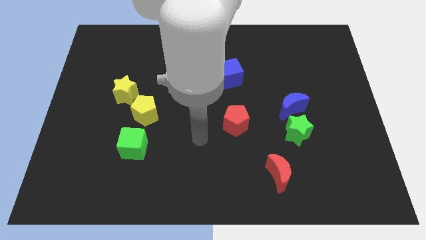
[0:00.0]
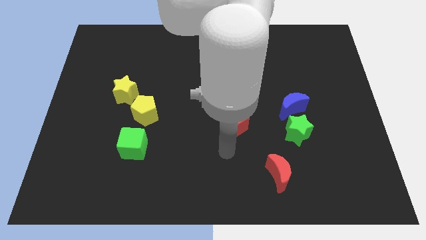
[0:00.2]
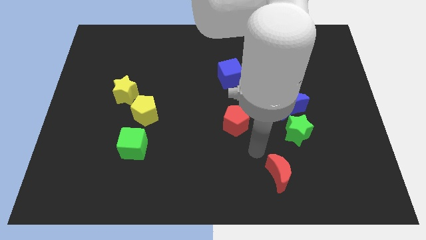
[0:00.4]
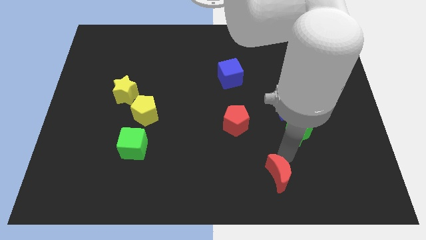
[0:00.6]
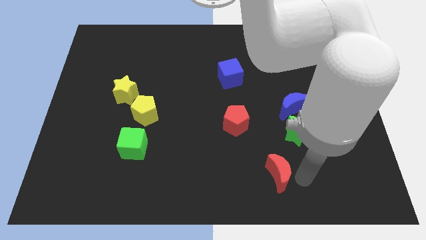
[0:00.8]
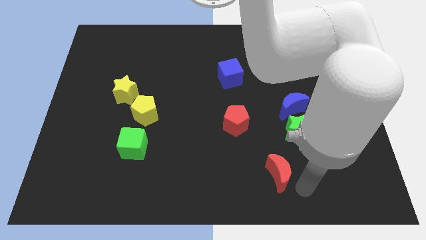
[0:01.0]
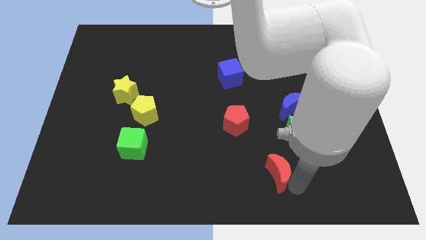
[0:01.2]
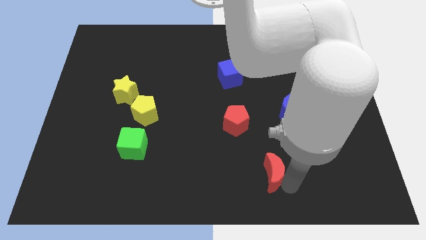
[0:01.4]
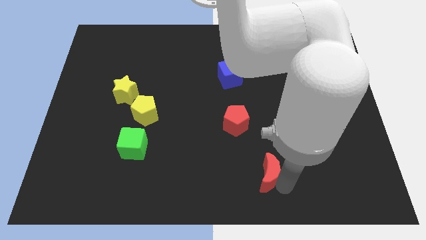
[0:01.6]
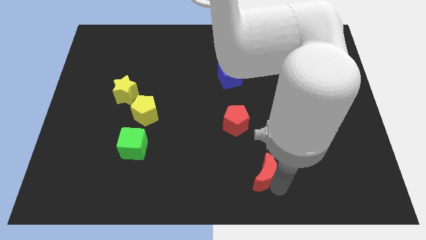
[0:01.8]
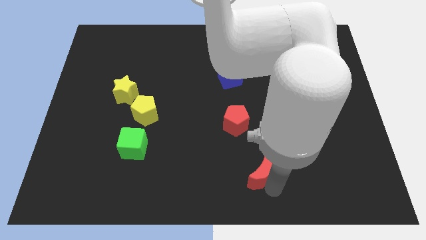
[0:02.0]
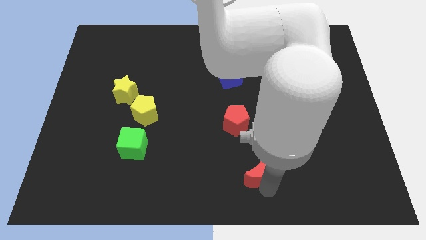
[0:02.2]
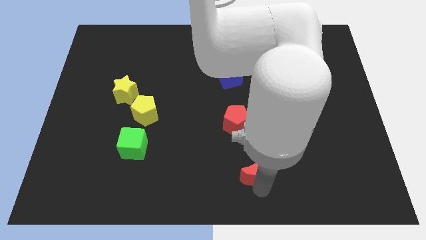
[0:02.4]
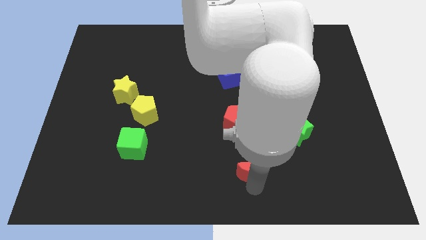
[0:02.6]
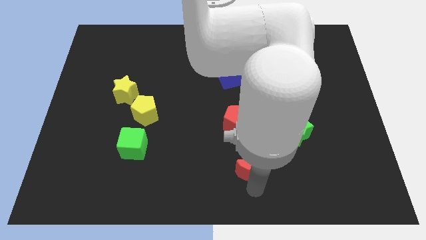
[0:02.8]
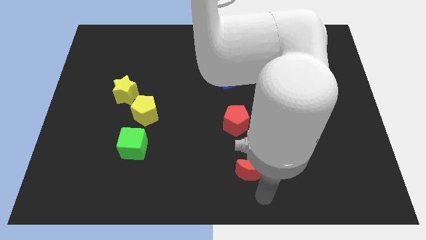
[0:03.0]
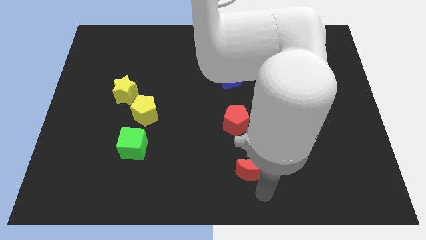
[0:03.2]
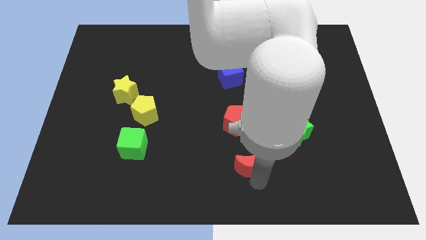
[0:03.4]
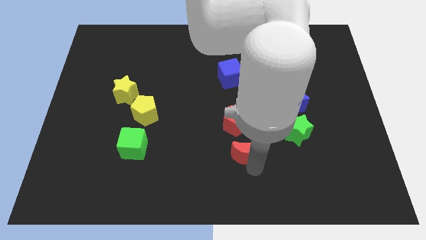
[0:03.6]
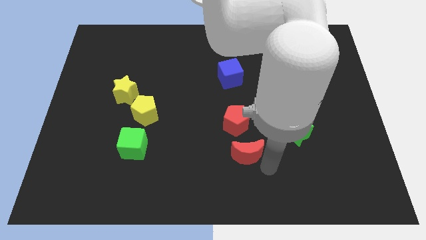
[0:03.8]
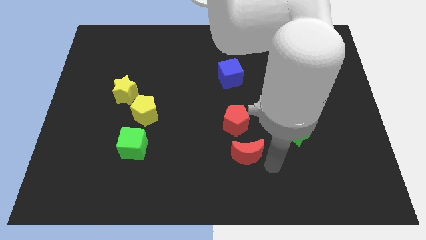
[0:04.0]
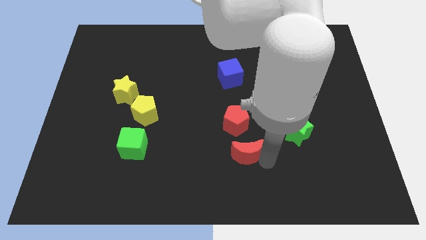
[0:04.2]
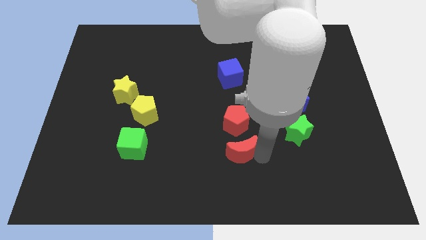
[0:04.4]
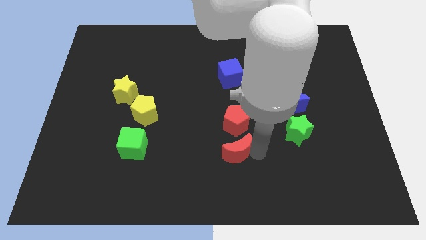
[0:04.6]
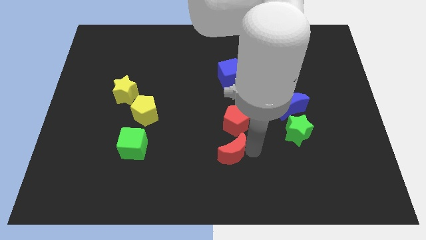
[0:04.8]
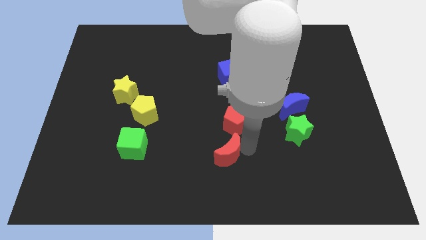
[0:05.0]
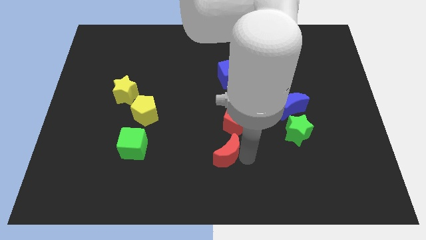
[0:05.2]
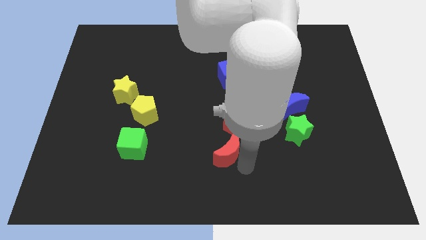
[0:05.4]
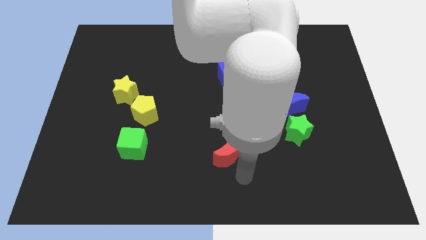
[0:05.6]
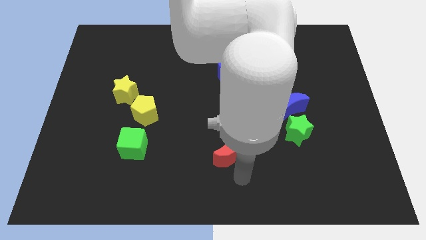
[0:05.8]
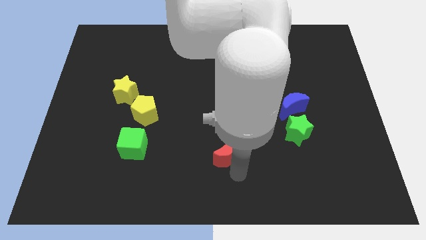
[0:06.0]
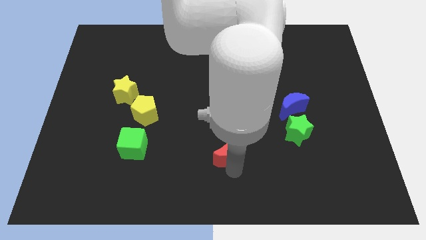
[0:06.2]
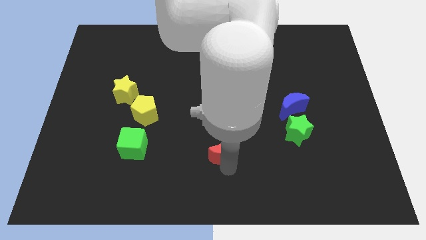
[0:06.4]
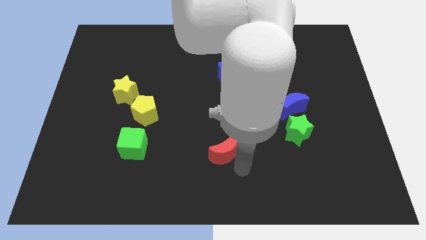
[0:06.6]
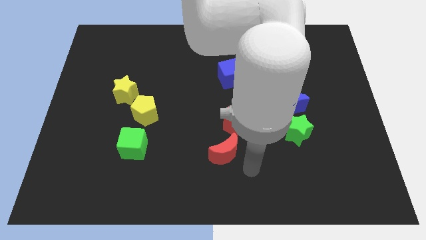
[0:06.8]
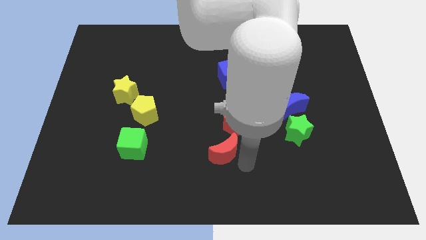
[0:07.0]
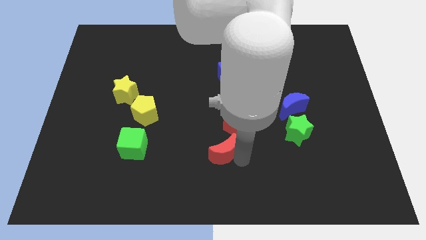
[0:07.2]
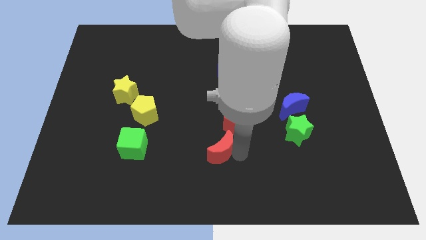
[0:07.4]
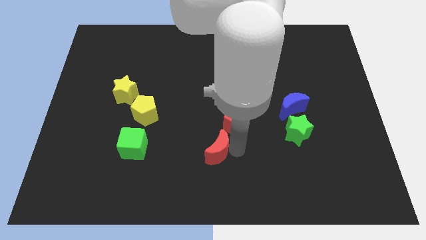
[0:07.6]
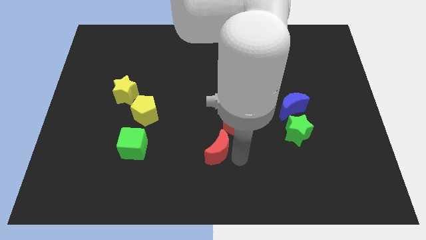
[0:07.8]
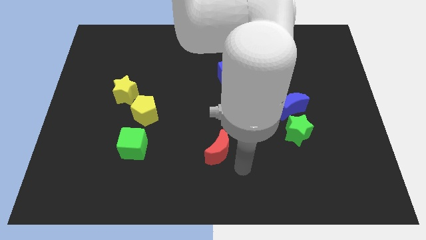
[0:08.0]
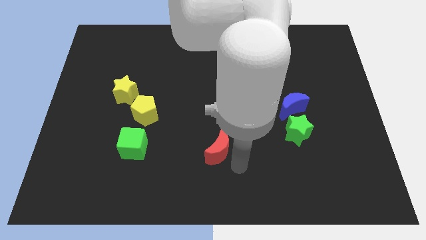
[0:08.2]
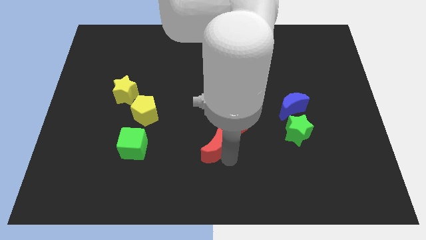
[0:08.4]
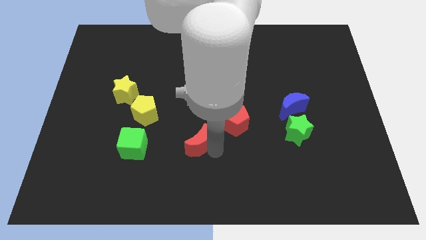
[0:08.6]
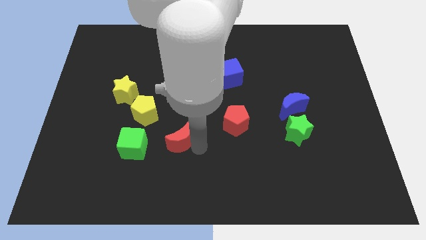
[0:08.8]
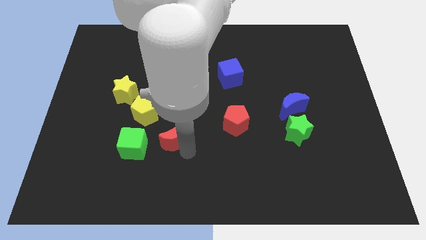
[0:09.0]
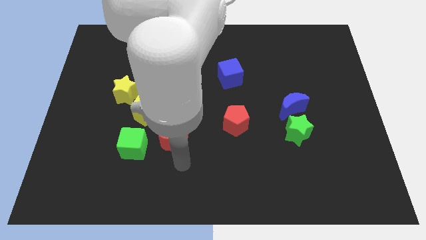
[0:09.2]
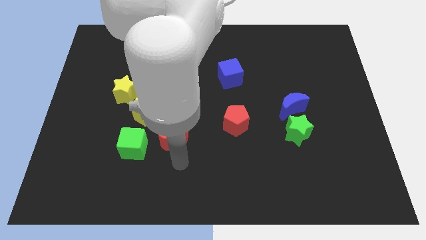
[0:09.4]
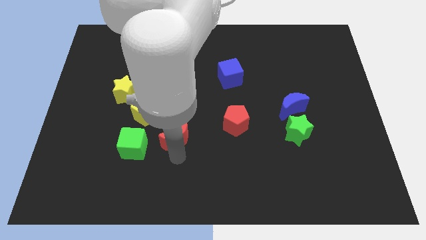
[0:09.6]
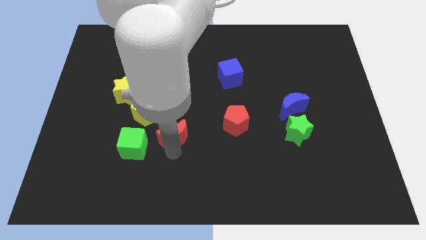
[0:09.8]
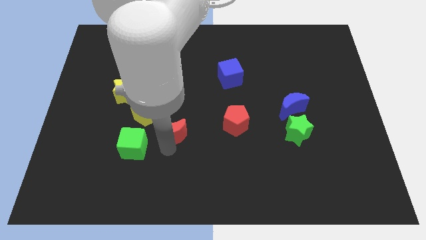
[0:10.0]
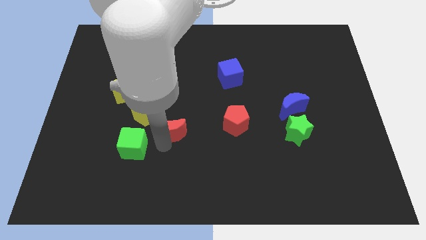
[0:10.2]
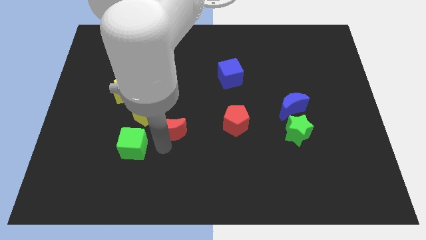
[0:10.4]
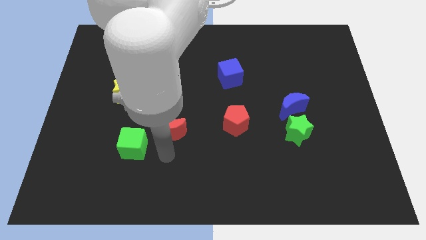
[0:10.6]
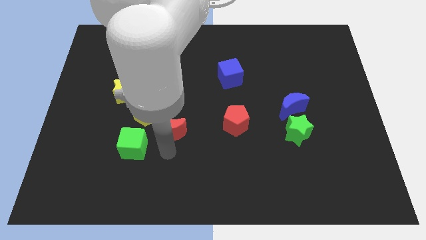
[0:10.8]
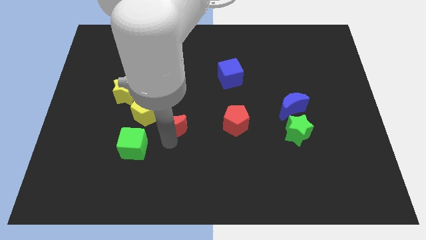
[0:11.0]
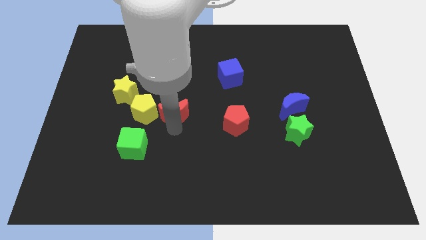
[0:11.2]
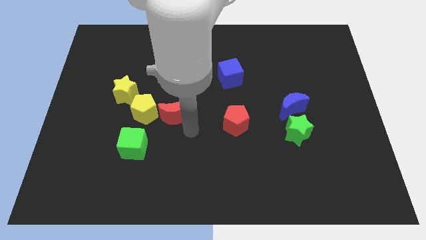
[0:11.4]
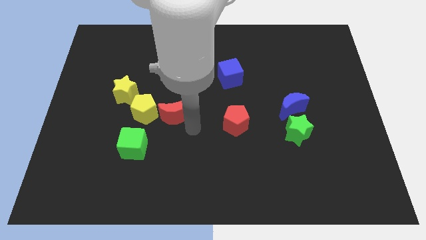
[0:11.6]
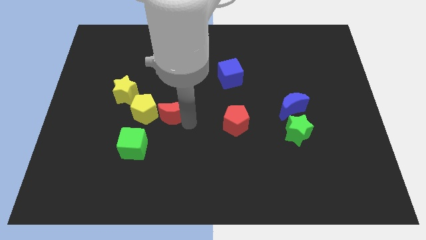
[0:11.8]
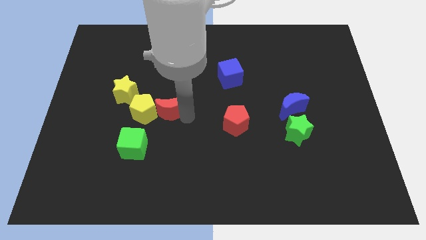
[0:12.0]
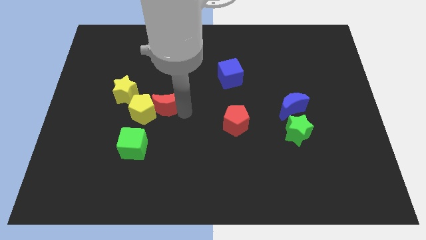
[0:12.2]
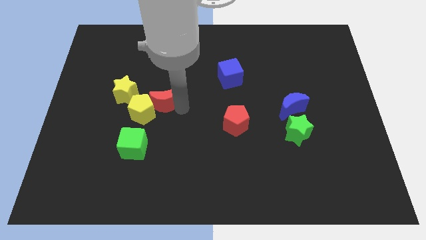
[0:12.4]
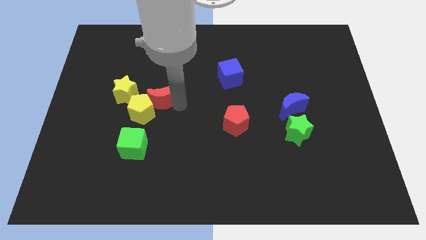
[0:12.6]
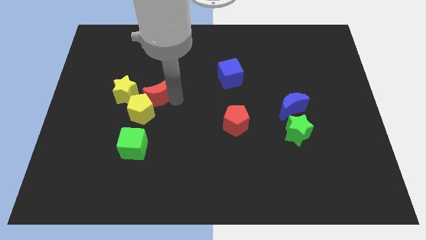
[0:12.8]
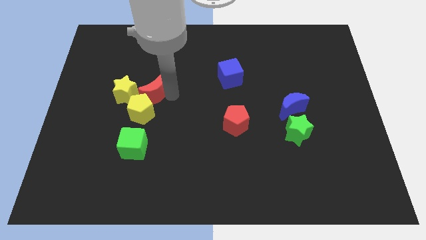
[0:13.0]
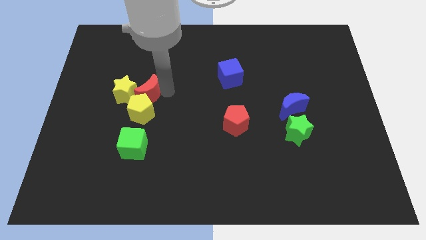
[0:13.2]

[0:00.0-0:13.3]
slide the red moon next to the yellow star
